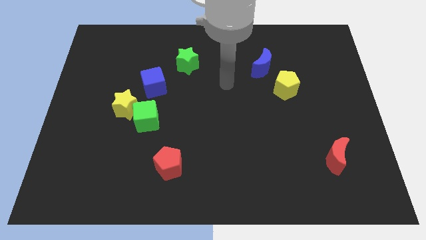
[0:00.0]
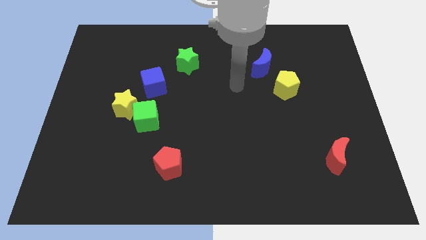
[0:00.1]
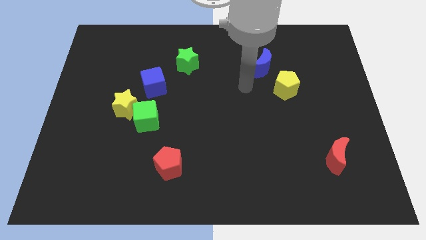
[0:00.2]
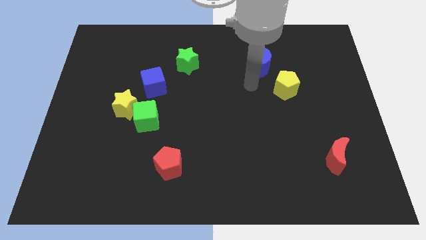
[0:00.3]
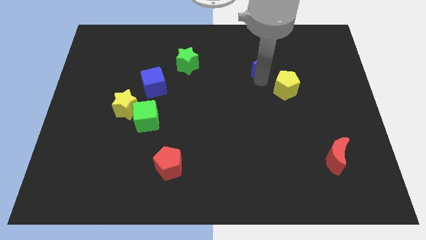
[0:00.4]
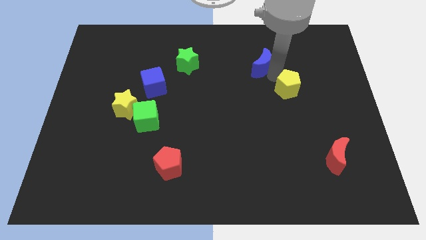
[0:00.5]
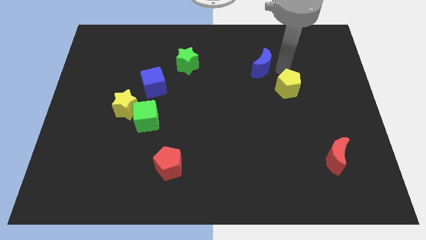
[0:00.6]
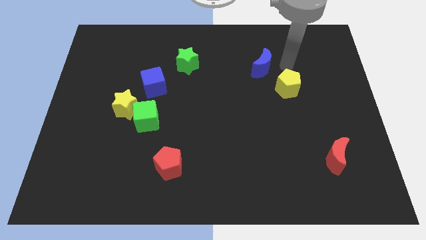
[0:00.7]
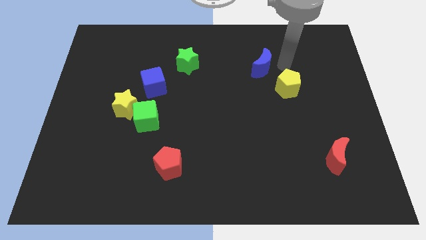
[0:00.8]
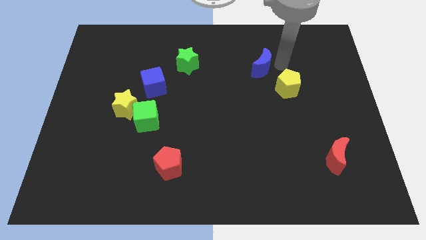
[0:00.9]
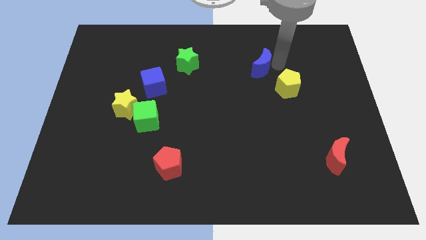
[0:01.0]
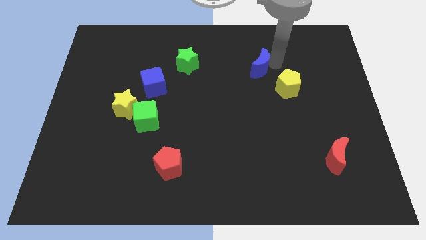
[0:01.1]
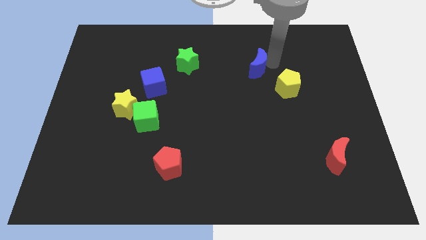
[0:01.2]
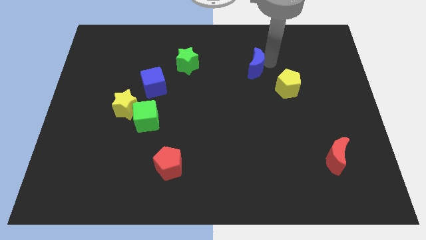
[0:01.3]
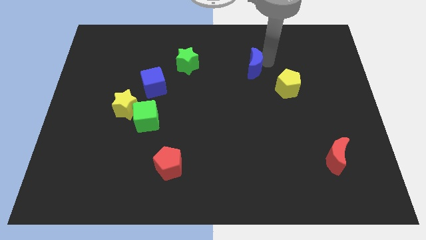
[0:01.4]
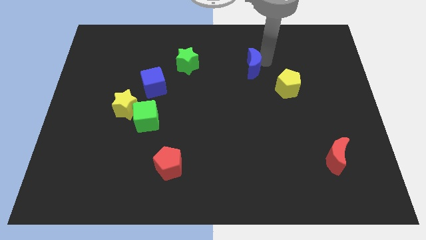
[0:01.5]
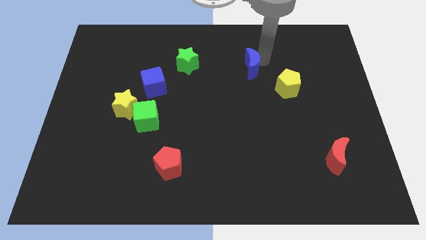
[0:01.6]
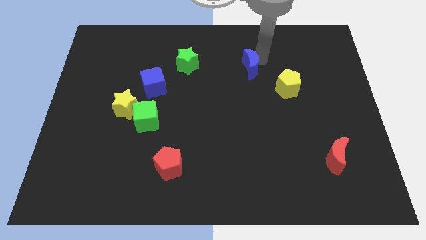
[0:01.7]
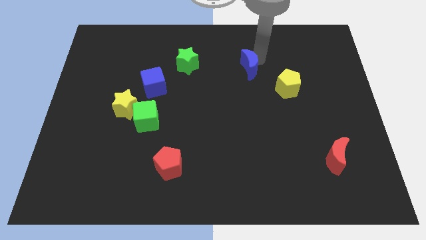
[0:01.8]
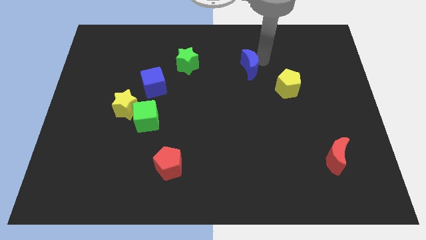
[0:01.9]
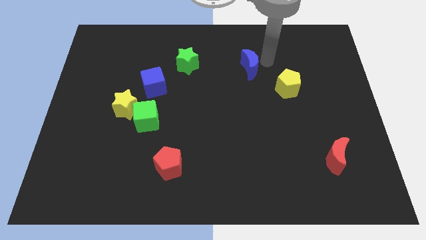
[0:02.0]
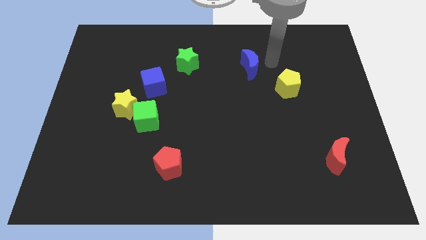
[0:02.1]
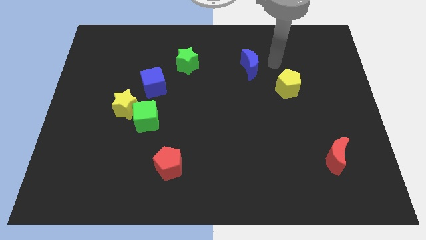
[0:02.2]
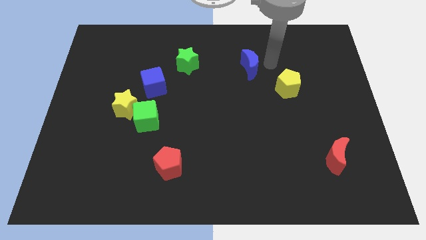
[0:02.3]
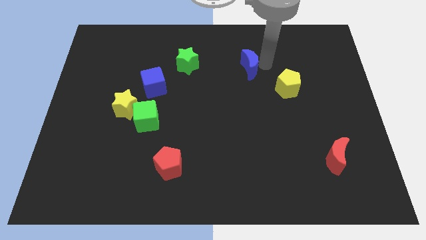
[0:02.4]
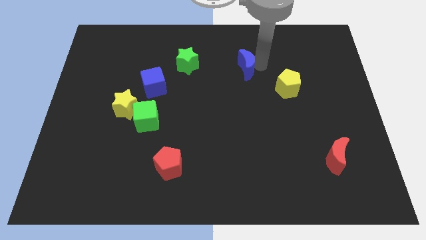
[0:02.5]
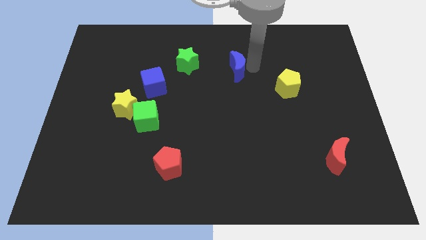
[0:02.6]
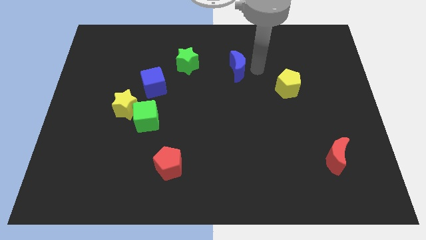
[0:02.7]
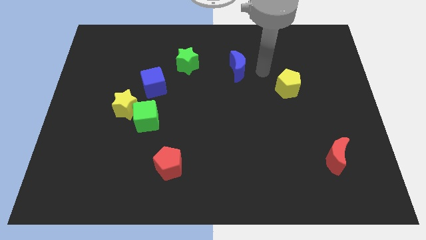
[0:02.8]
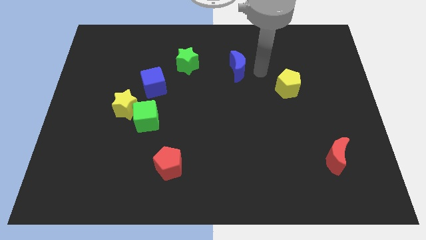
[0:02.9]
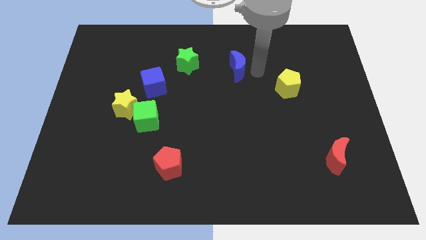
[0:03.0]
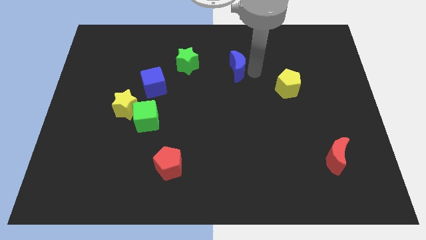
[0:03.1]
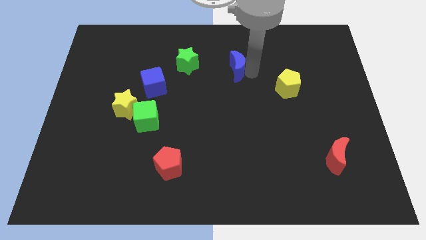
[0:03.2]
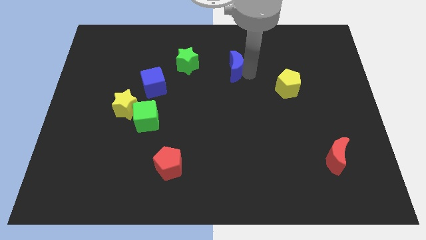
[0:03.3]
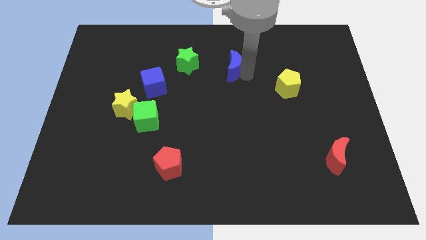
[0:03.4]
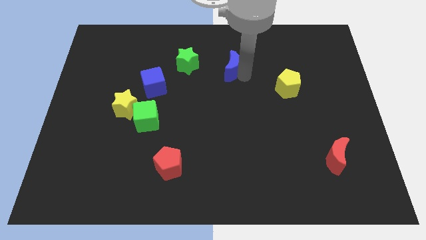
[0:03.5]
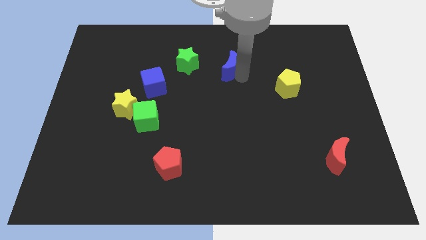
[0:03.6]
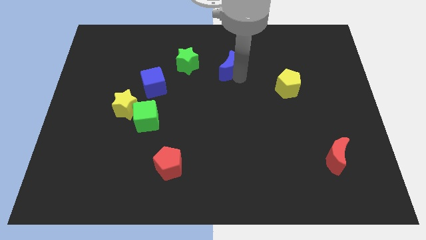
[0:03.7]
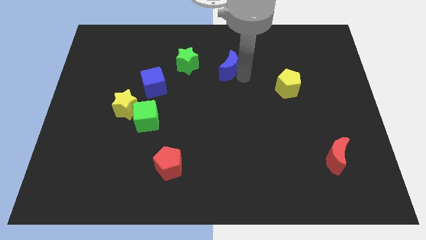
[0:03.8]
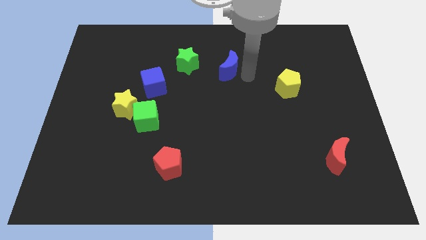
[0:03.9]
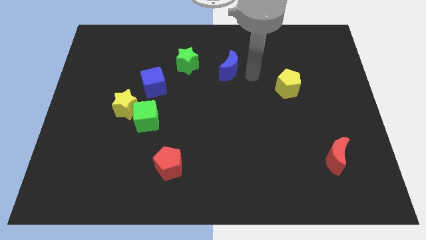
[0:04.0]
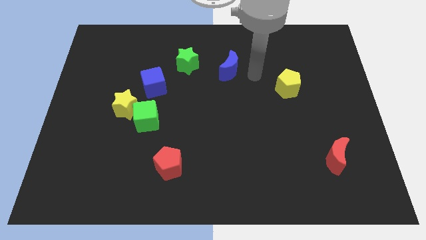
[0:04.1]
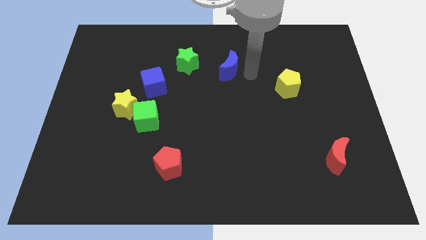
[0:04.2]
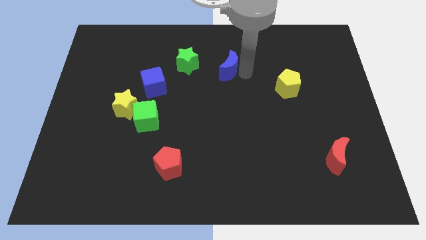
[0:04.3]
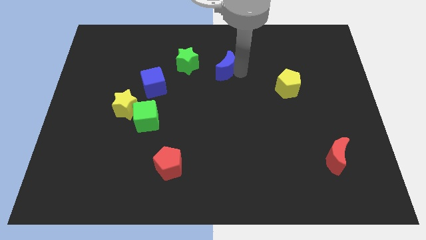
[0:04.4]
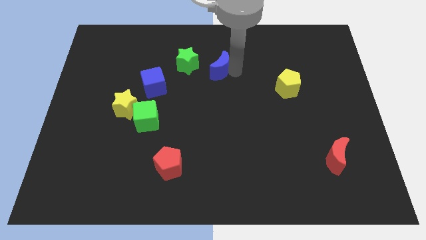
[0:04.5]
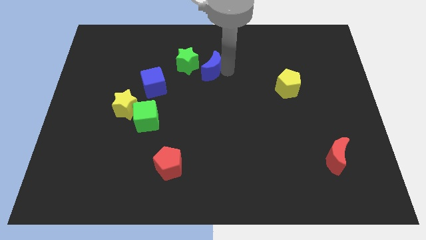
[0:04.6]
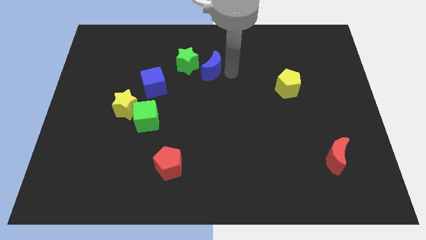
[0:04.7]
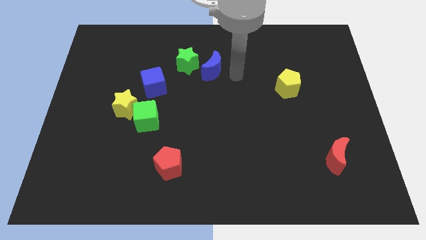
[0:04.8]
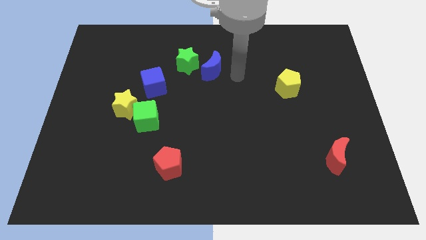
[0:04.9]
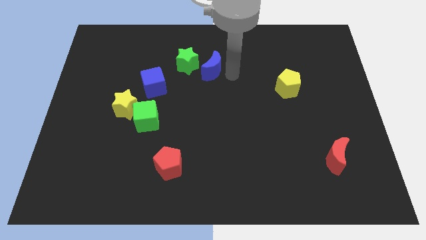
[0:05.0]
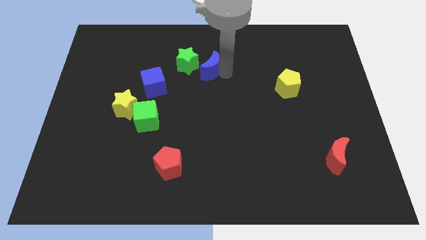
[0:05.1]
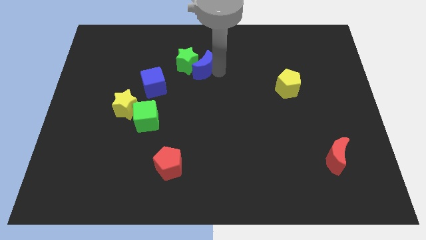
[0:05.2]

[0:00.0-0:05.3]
move the blue moon close to the green star

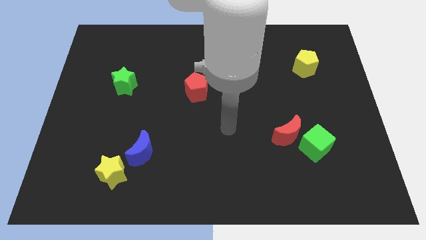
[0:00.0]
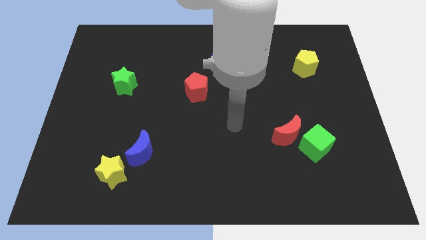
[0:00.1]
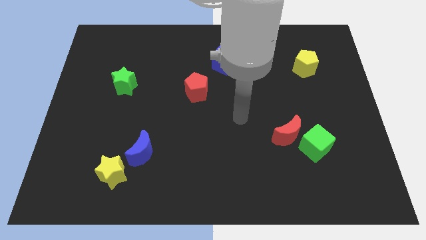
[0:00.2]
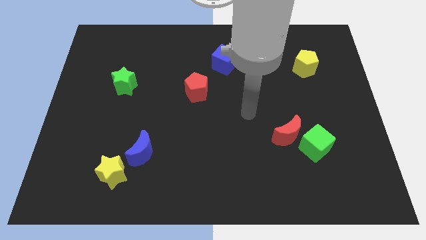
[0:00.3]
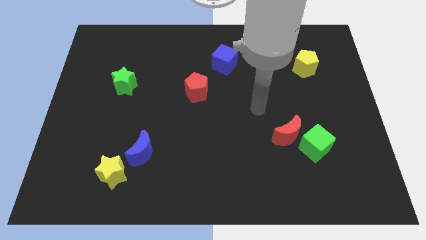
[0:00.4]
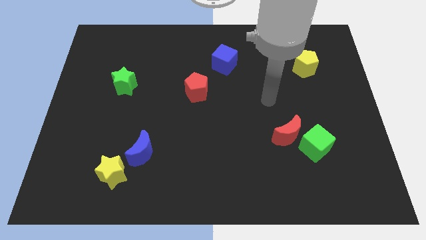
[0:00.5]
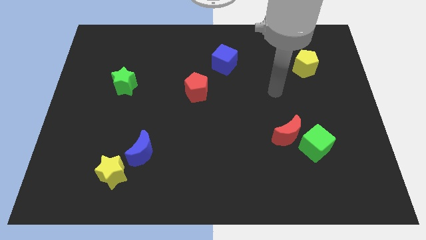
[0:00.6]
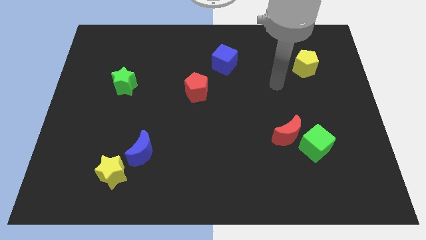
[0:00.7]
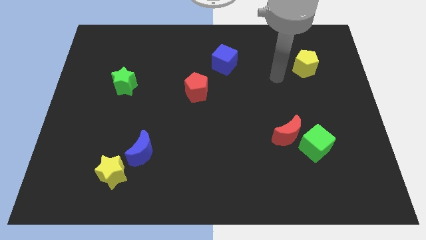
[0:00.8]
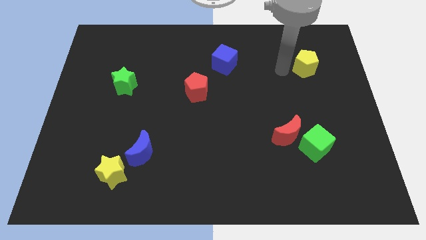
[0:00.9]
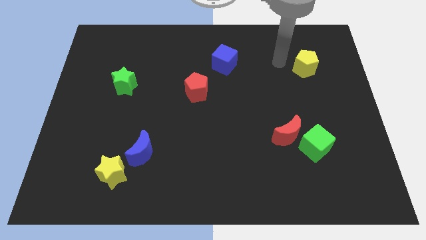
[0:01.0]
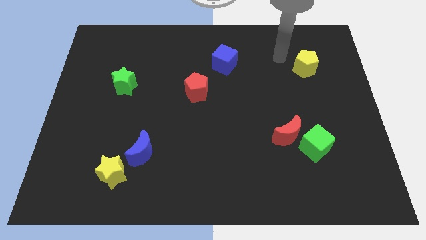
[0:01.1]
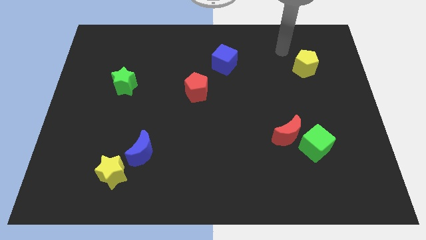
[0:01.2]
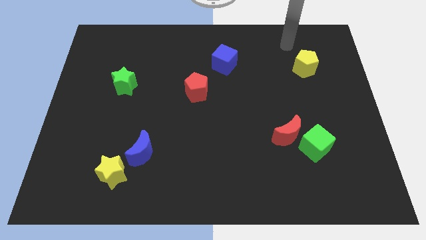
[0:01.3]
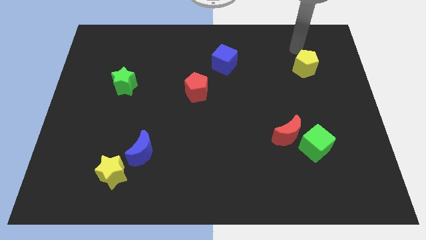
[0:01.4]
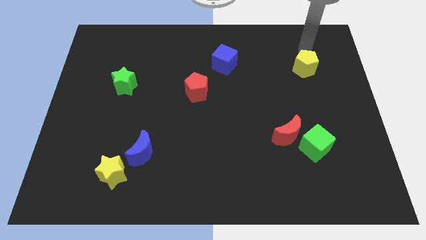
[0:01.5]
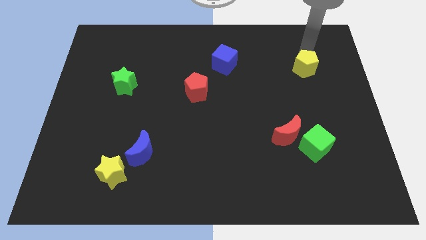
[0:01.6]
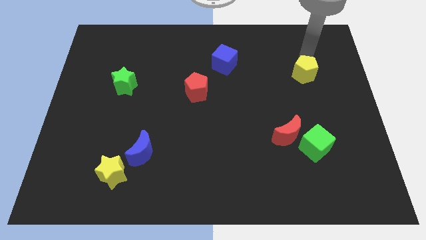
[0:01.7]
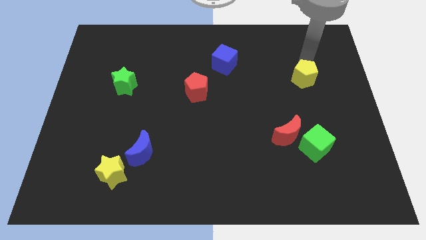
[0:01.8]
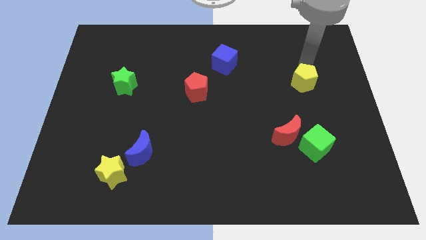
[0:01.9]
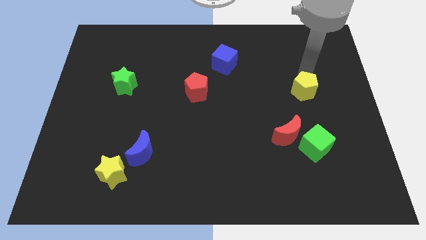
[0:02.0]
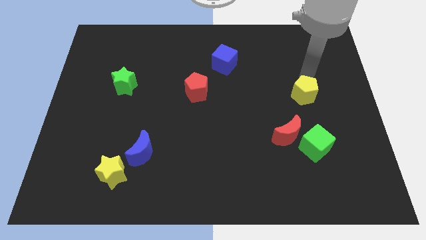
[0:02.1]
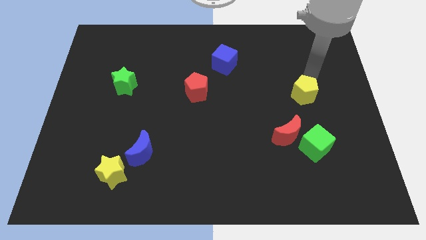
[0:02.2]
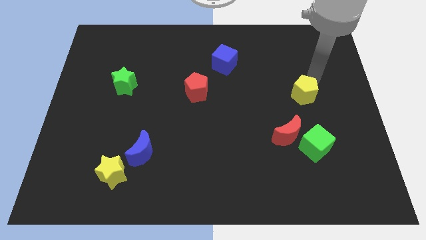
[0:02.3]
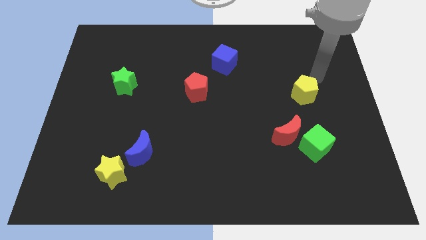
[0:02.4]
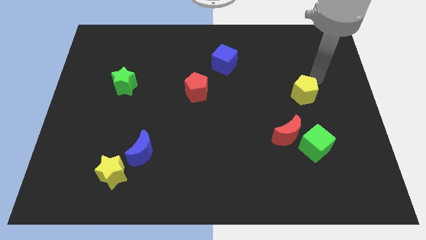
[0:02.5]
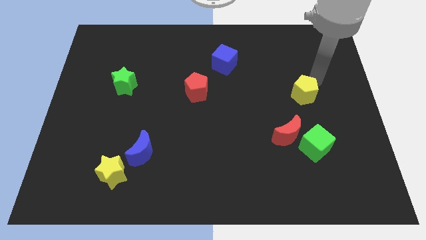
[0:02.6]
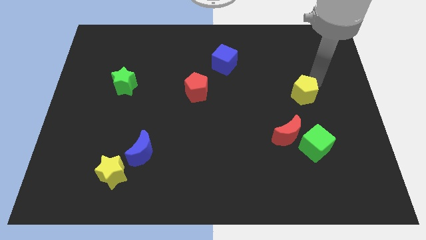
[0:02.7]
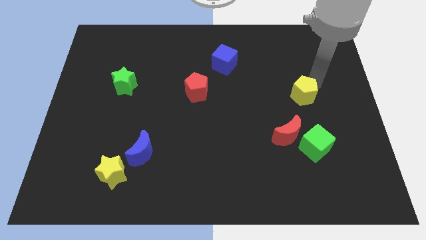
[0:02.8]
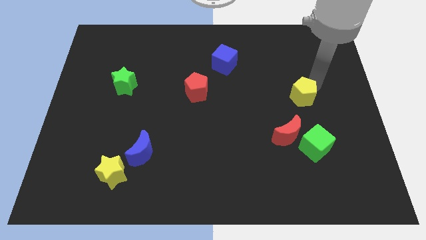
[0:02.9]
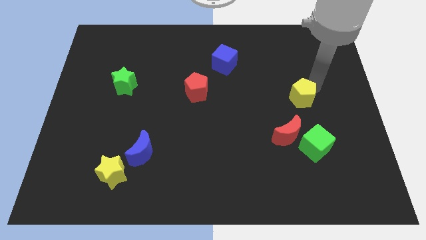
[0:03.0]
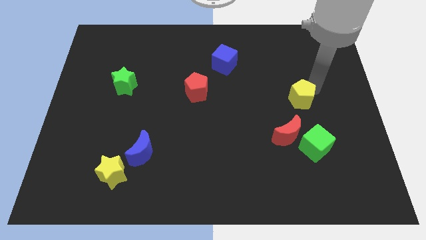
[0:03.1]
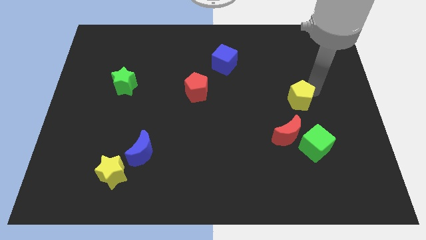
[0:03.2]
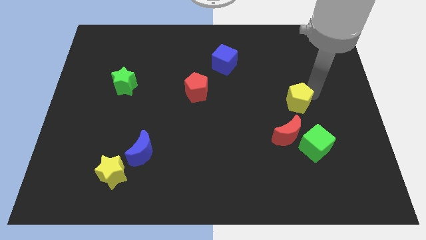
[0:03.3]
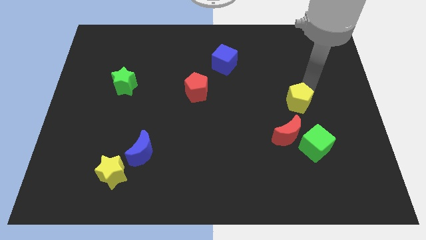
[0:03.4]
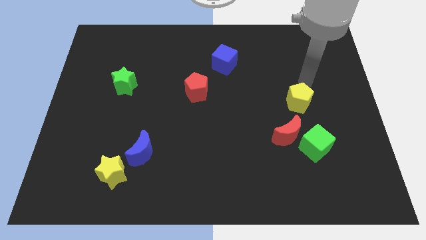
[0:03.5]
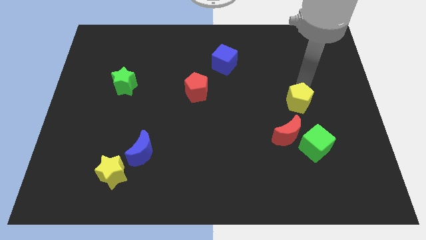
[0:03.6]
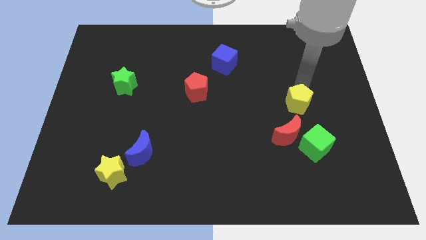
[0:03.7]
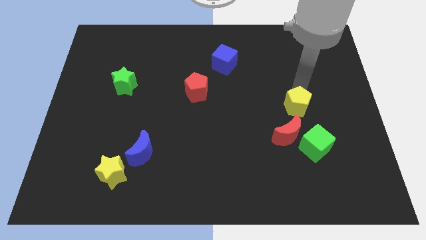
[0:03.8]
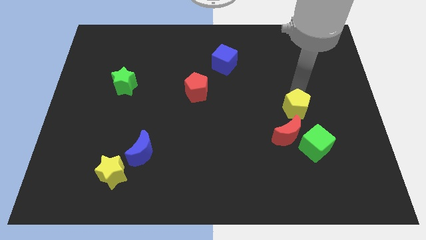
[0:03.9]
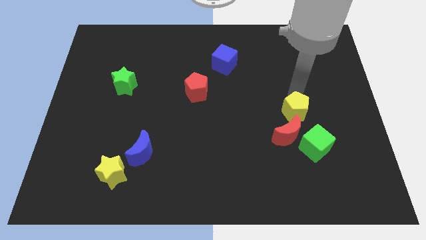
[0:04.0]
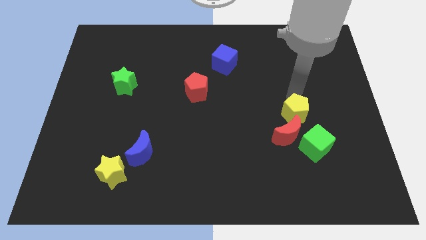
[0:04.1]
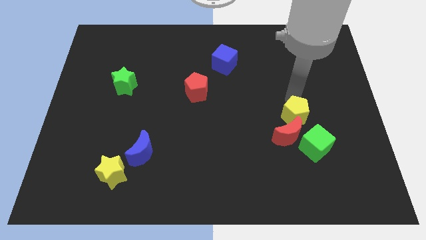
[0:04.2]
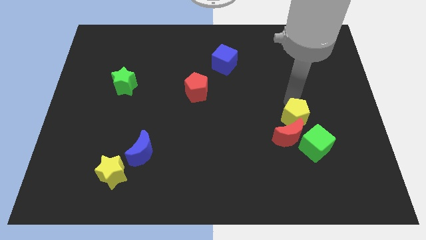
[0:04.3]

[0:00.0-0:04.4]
move the yellow pentagon towards the red moon
